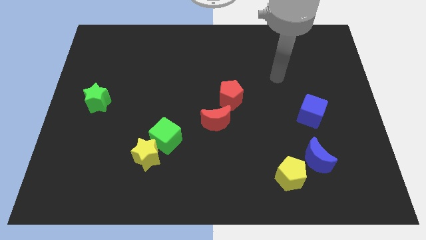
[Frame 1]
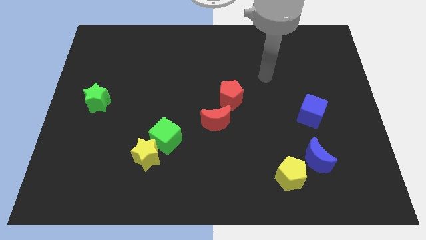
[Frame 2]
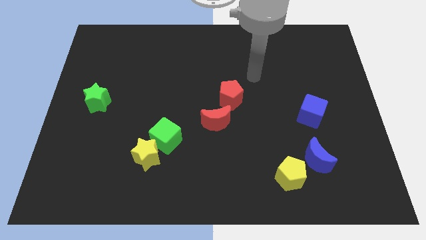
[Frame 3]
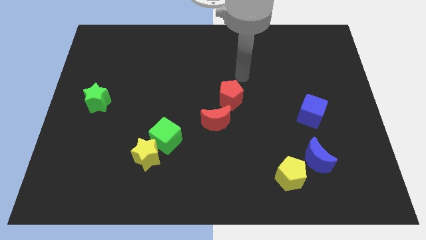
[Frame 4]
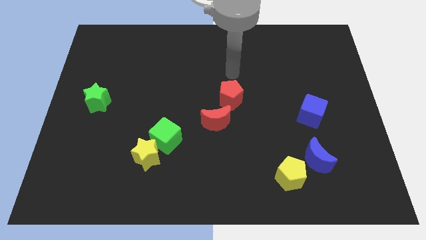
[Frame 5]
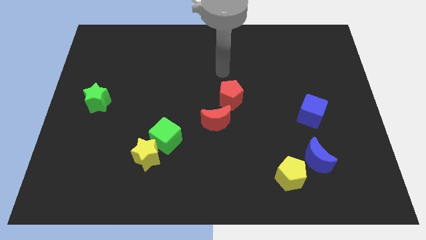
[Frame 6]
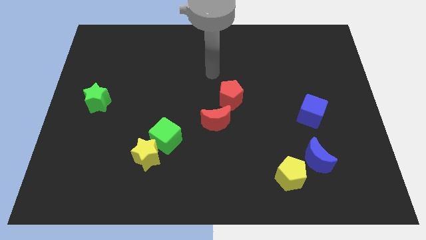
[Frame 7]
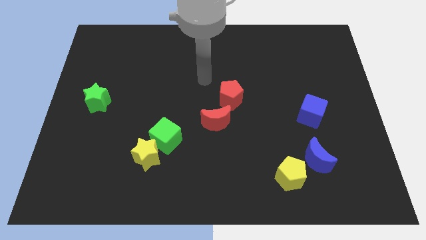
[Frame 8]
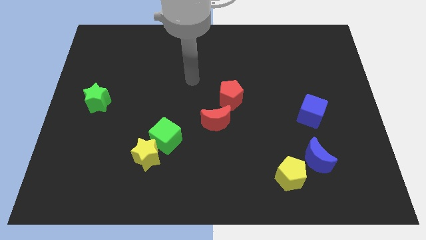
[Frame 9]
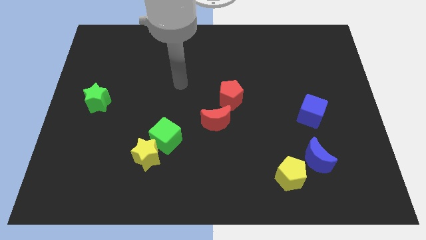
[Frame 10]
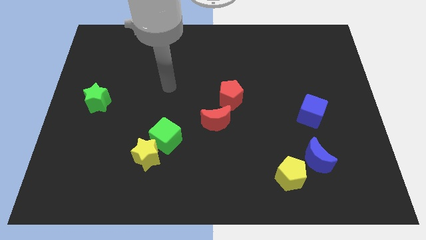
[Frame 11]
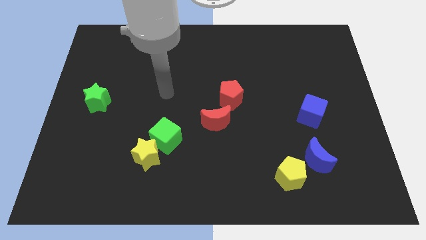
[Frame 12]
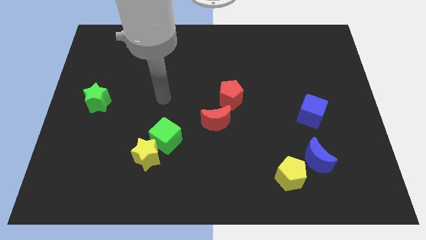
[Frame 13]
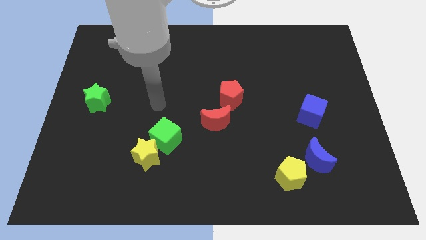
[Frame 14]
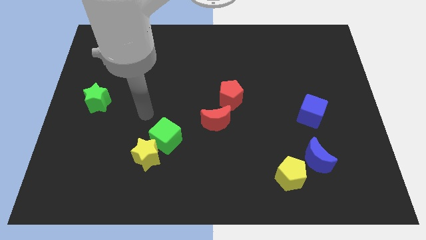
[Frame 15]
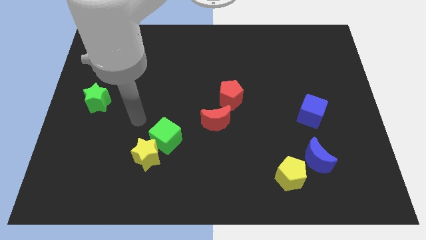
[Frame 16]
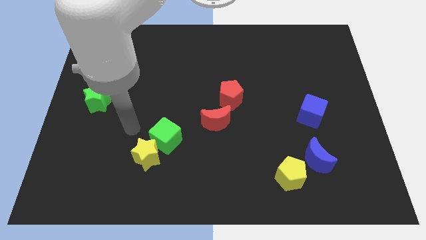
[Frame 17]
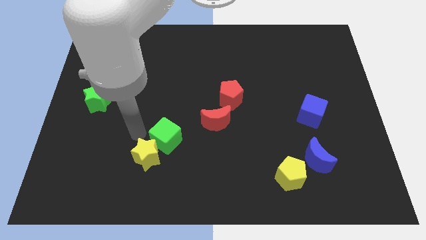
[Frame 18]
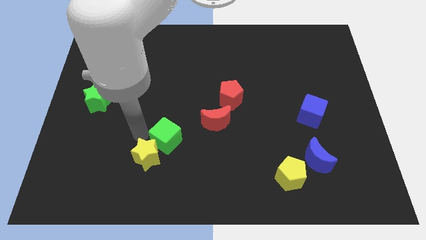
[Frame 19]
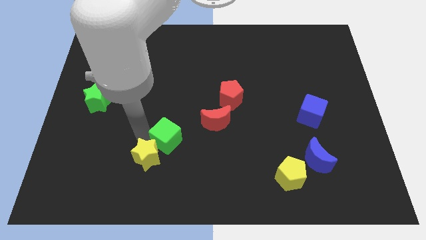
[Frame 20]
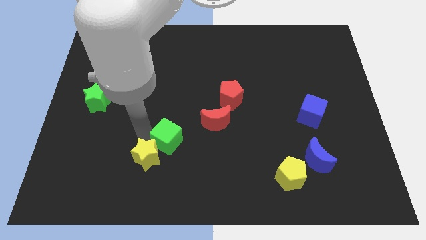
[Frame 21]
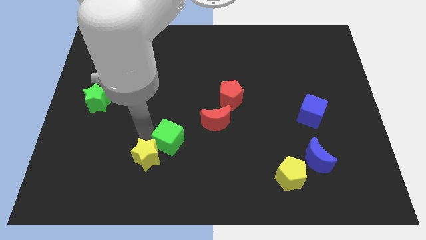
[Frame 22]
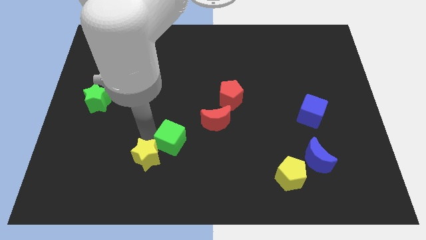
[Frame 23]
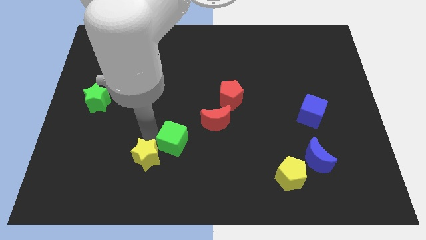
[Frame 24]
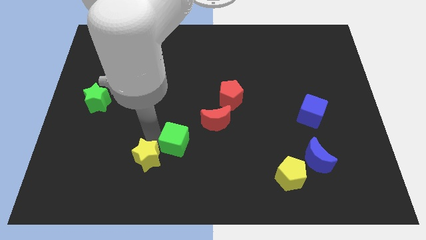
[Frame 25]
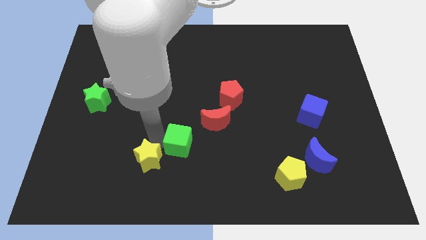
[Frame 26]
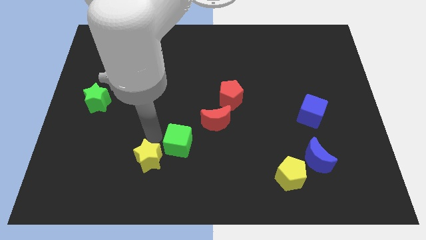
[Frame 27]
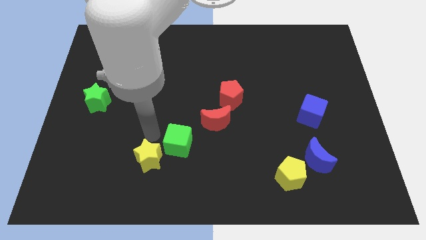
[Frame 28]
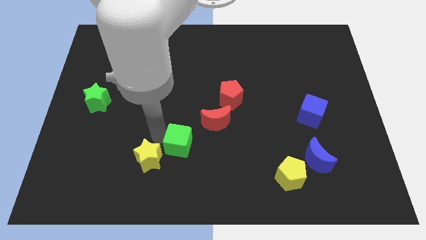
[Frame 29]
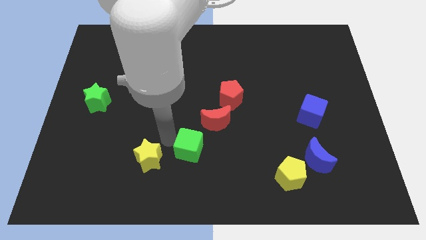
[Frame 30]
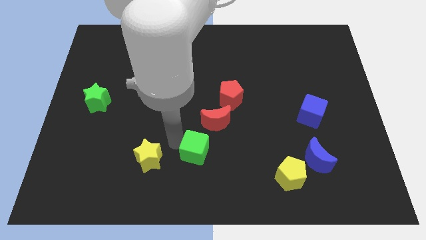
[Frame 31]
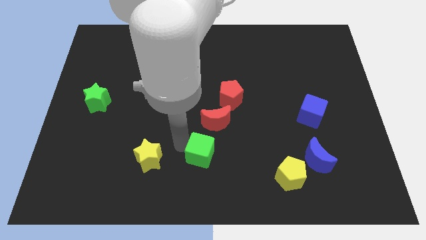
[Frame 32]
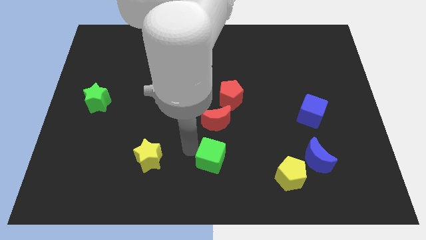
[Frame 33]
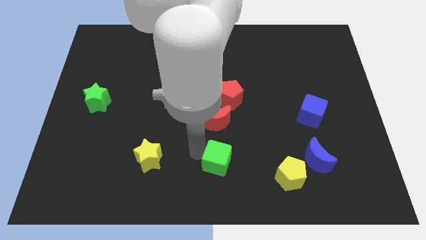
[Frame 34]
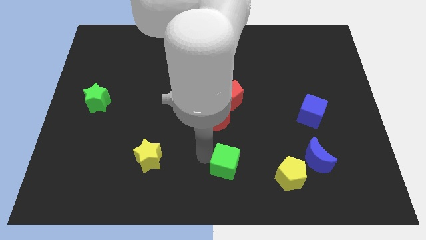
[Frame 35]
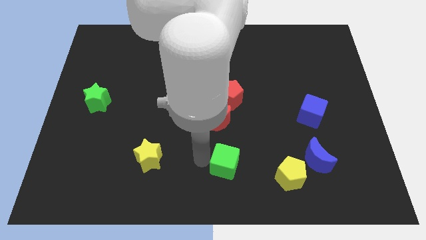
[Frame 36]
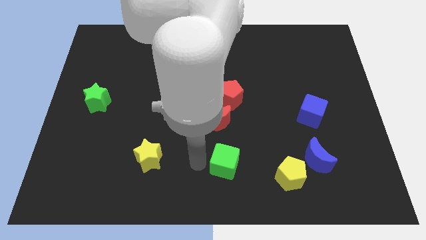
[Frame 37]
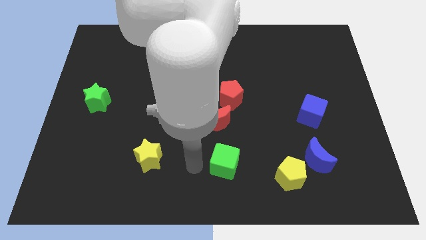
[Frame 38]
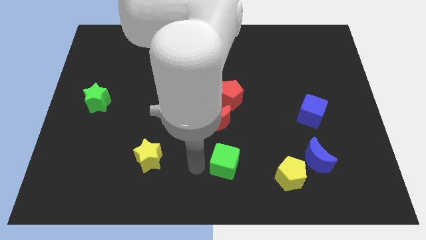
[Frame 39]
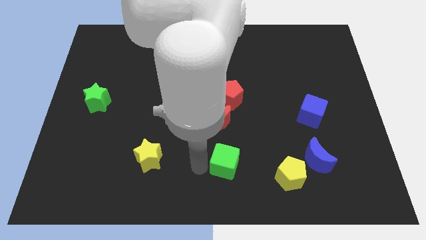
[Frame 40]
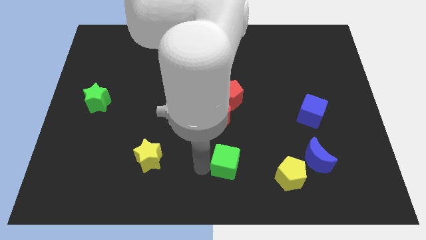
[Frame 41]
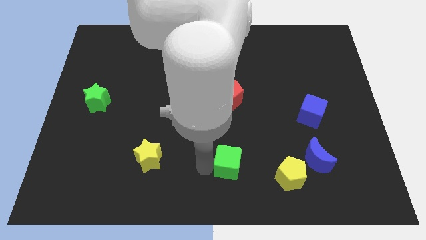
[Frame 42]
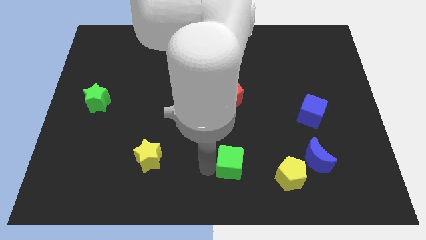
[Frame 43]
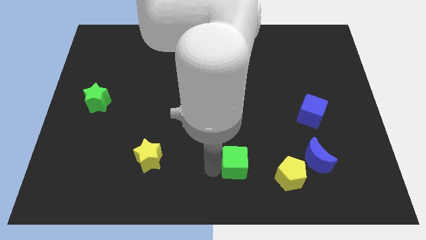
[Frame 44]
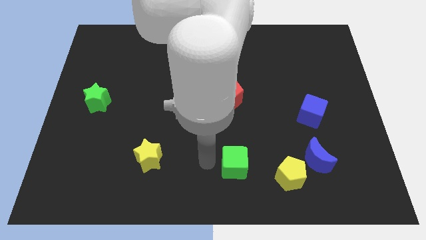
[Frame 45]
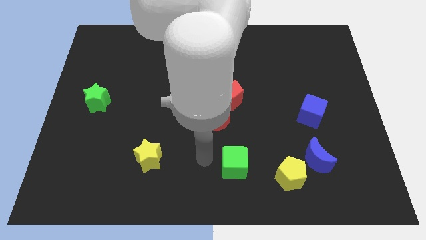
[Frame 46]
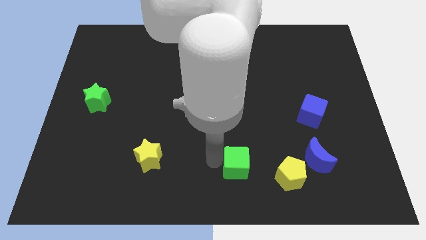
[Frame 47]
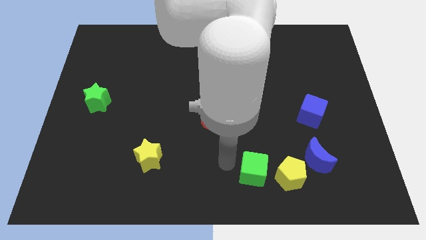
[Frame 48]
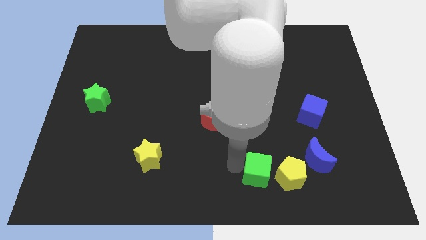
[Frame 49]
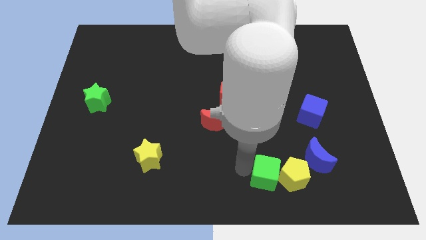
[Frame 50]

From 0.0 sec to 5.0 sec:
push the green cube to the yellow pentagon

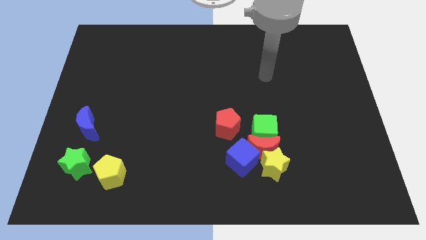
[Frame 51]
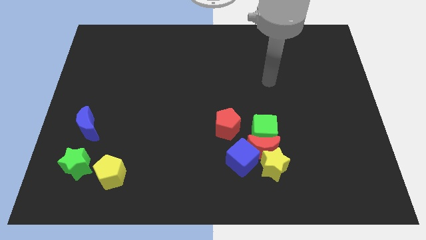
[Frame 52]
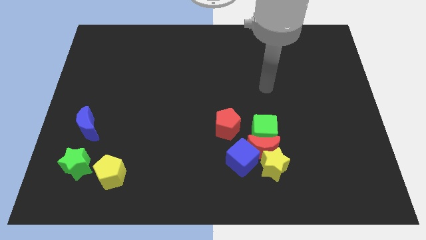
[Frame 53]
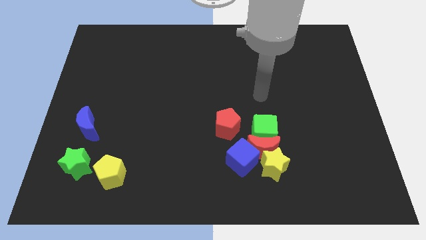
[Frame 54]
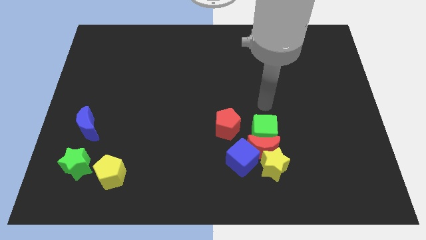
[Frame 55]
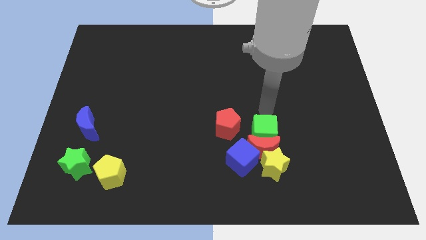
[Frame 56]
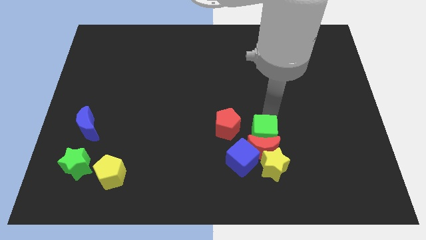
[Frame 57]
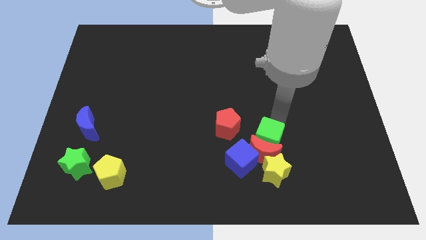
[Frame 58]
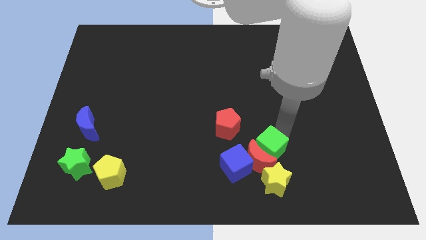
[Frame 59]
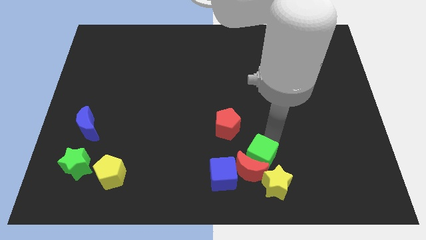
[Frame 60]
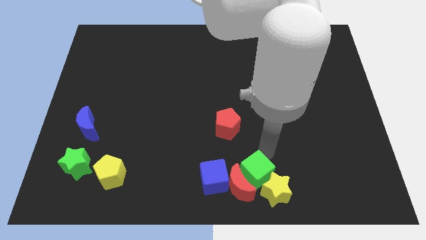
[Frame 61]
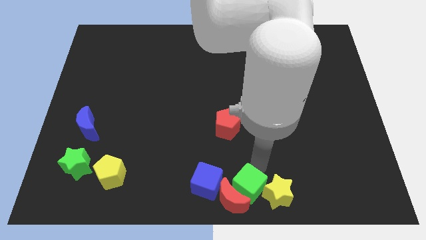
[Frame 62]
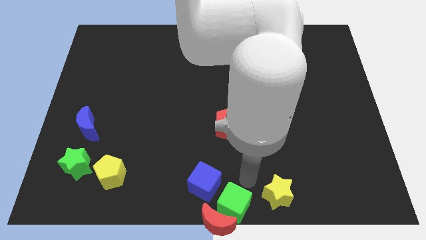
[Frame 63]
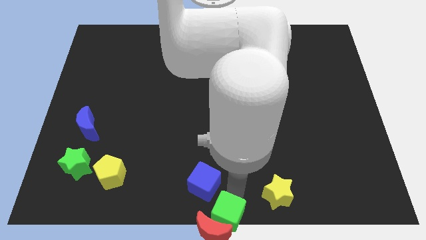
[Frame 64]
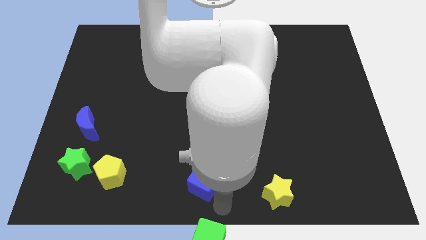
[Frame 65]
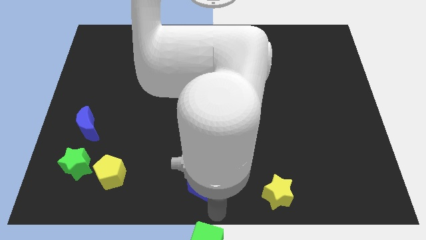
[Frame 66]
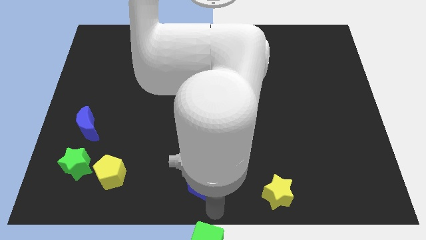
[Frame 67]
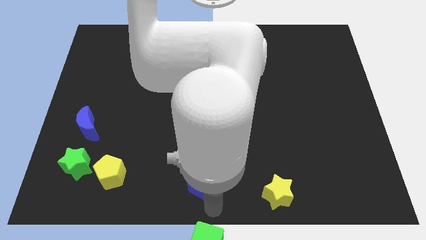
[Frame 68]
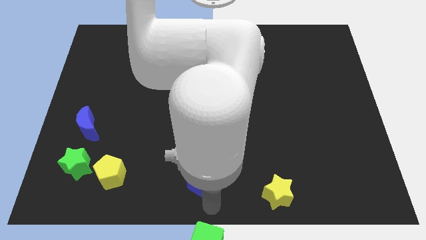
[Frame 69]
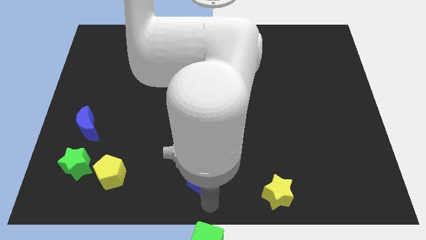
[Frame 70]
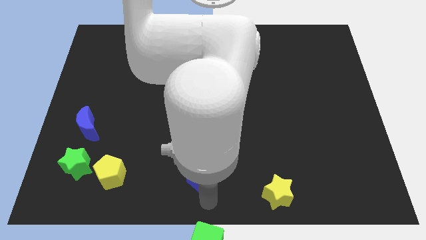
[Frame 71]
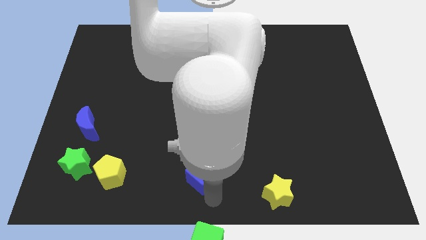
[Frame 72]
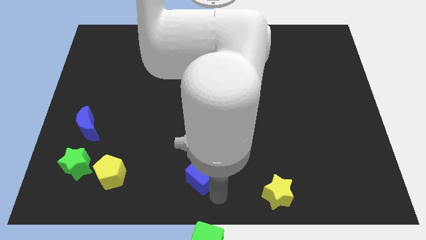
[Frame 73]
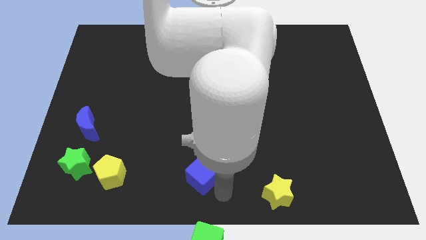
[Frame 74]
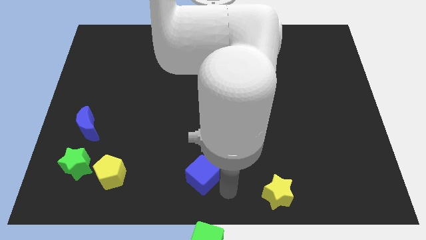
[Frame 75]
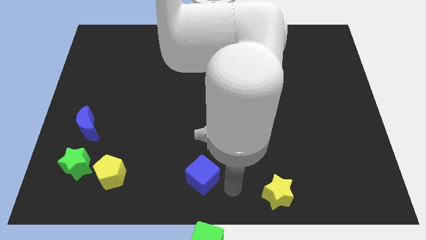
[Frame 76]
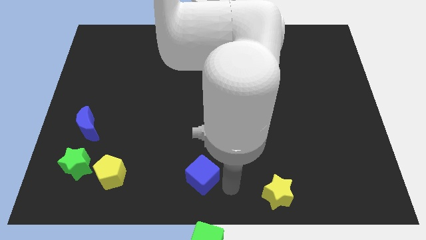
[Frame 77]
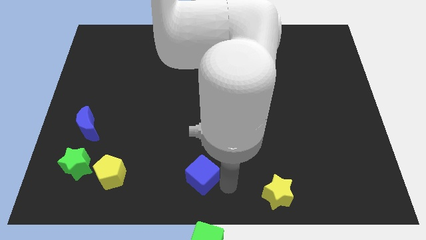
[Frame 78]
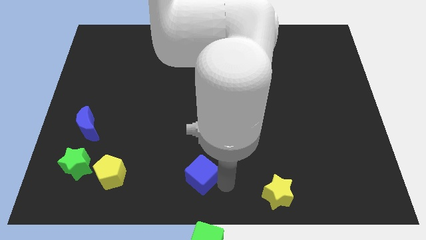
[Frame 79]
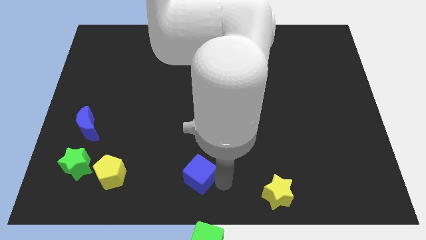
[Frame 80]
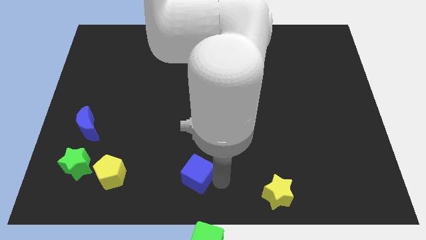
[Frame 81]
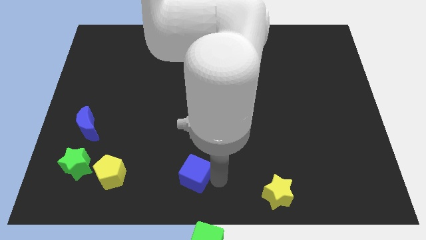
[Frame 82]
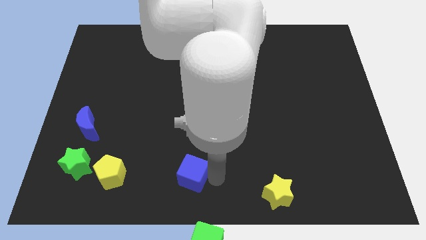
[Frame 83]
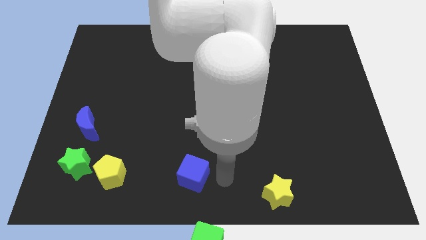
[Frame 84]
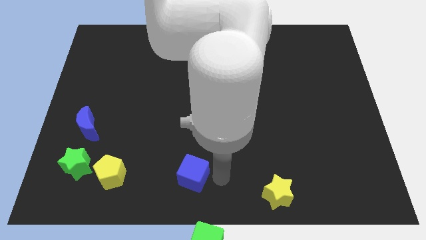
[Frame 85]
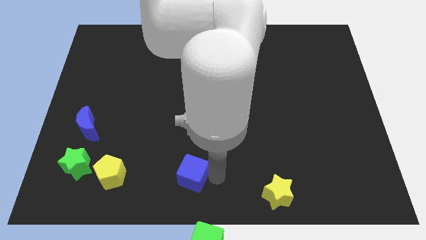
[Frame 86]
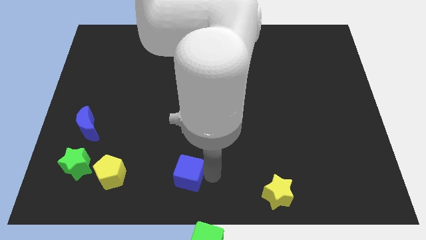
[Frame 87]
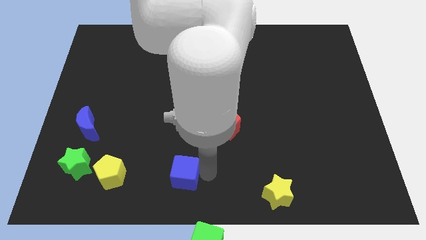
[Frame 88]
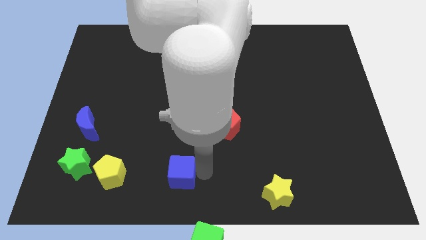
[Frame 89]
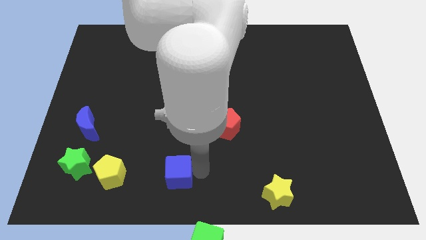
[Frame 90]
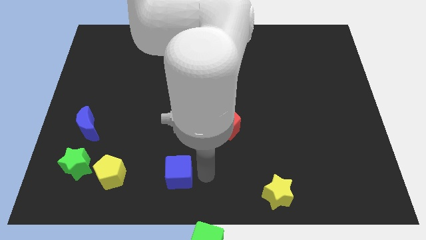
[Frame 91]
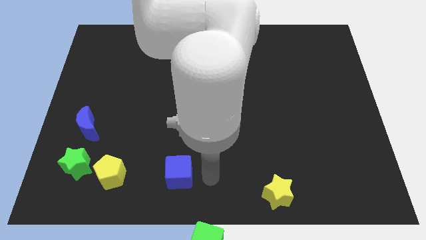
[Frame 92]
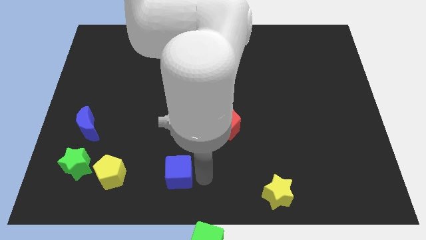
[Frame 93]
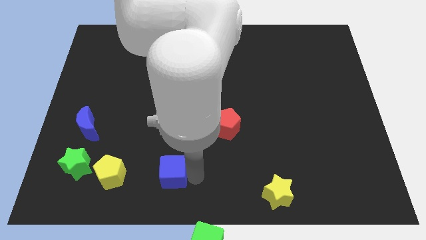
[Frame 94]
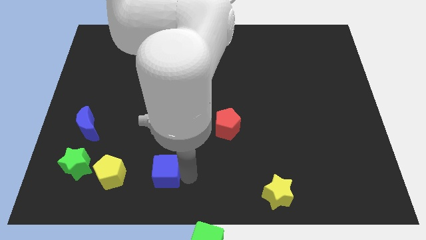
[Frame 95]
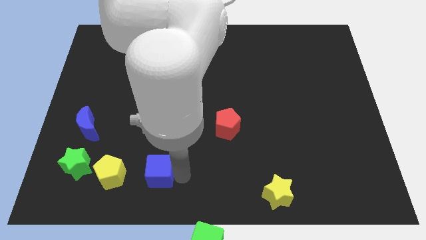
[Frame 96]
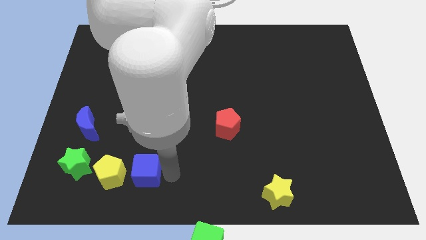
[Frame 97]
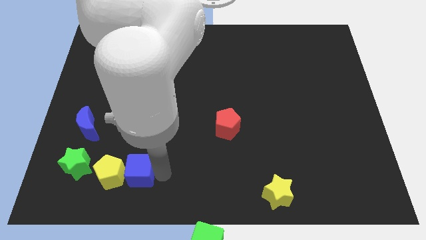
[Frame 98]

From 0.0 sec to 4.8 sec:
put the blue cube next to the yellow pentagon
